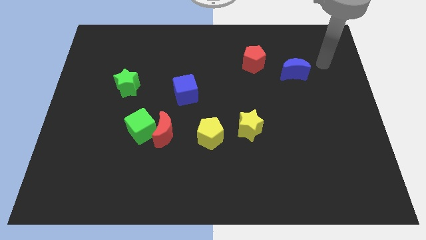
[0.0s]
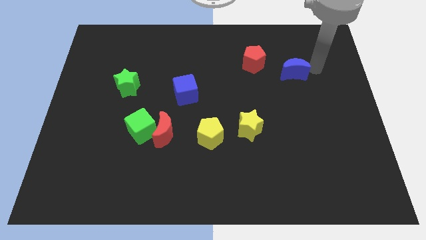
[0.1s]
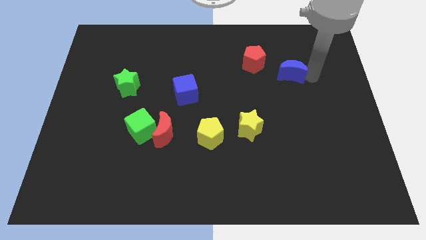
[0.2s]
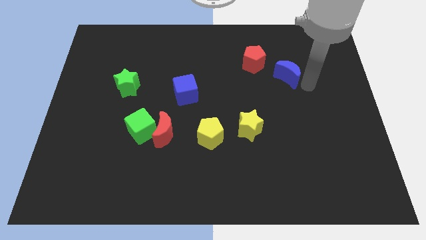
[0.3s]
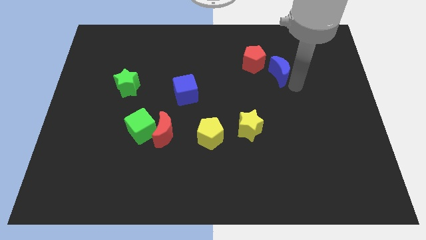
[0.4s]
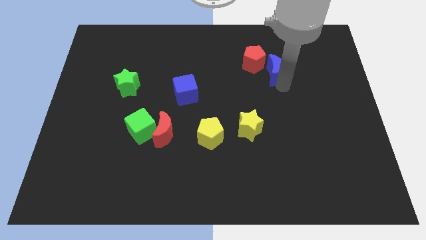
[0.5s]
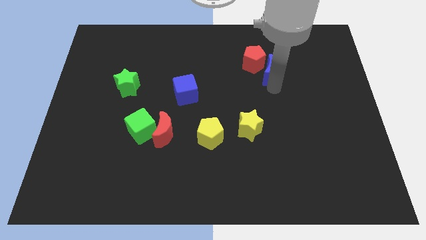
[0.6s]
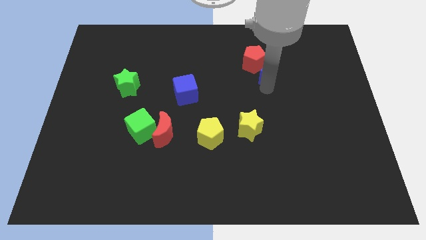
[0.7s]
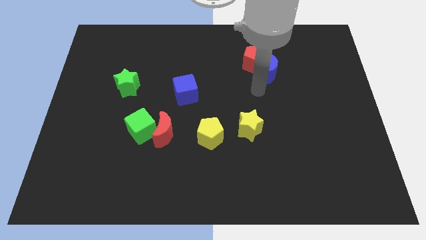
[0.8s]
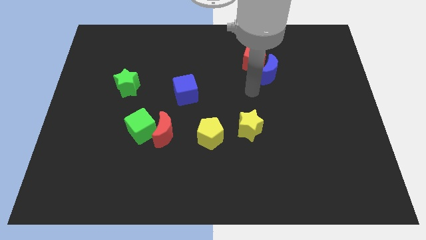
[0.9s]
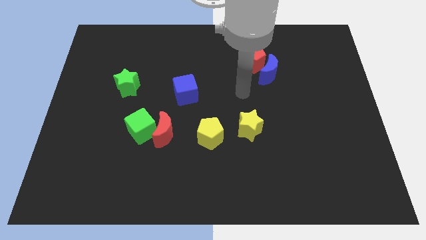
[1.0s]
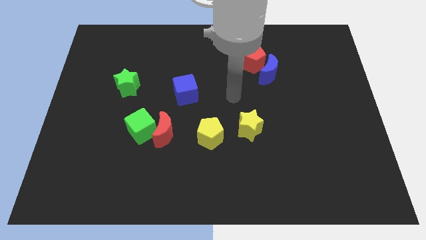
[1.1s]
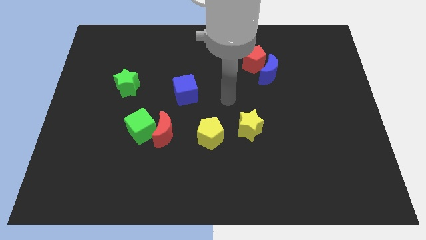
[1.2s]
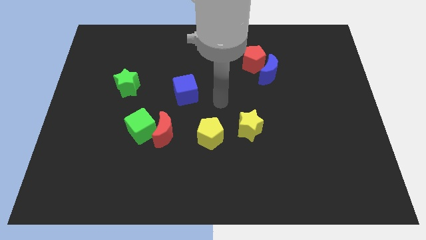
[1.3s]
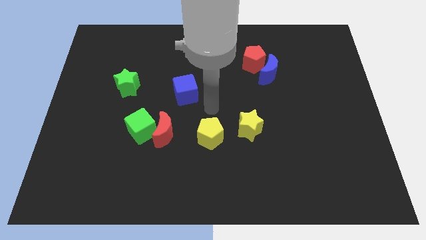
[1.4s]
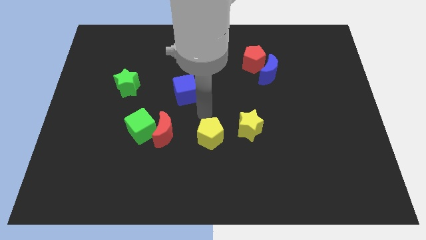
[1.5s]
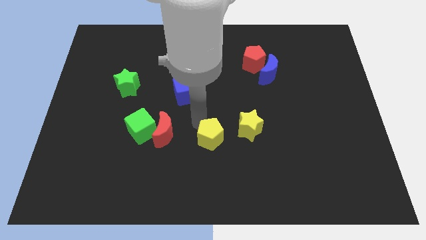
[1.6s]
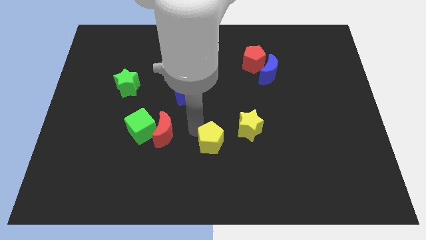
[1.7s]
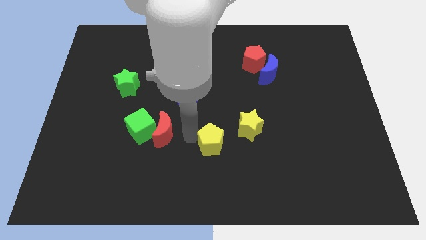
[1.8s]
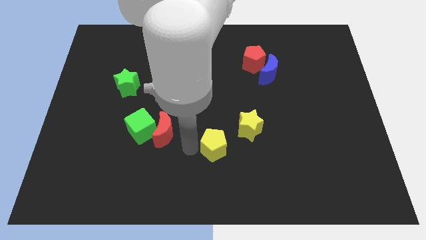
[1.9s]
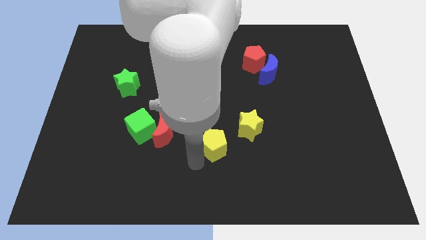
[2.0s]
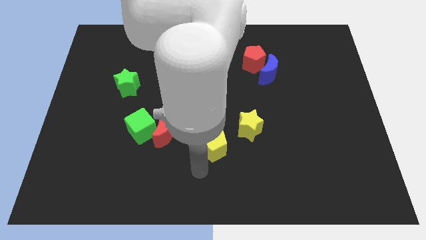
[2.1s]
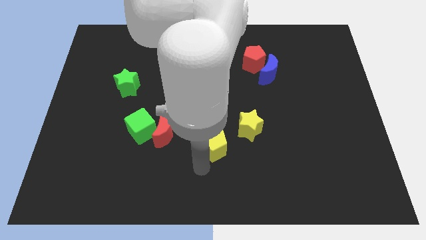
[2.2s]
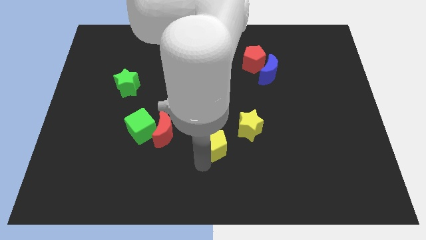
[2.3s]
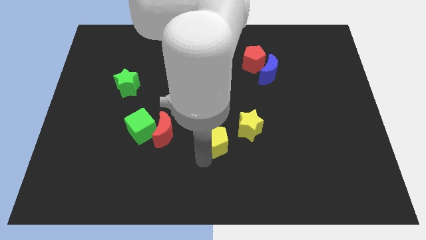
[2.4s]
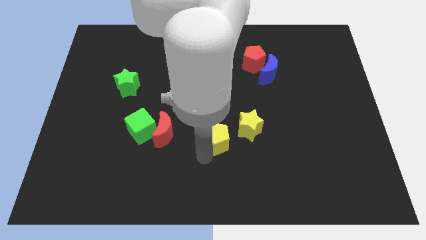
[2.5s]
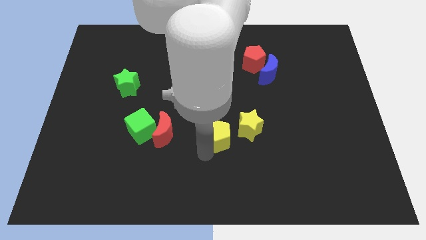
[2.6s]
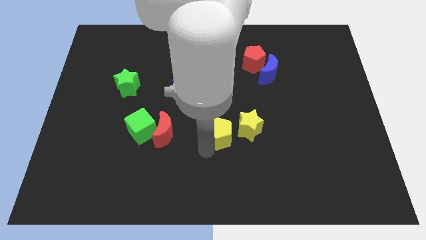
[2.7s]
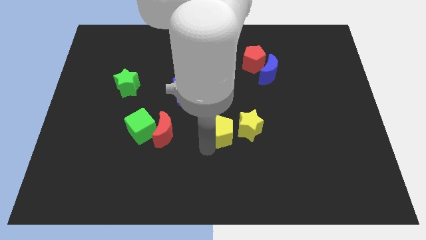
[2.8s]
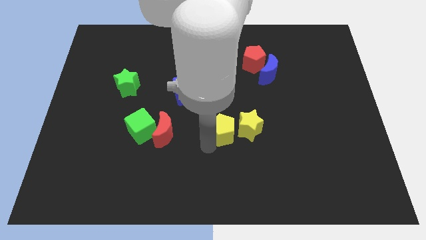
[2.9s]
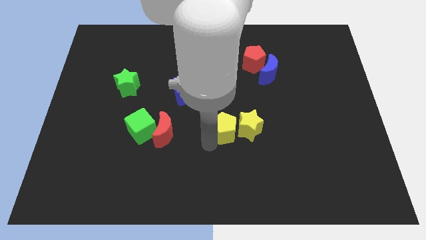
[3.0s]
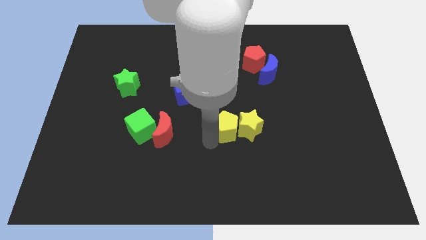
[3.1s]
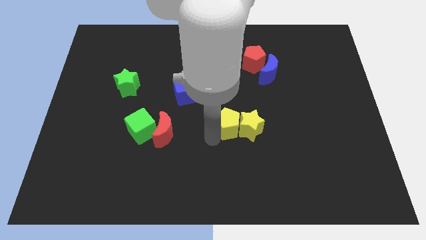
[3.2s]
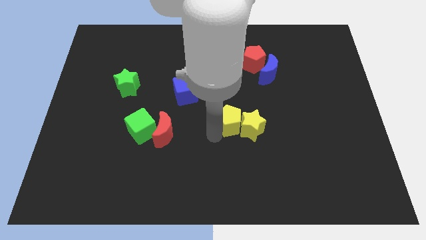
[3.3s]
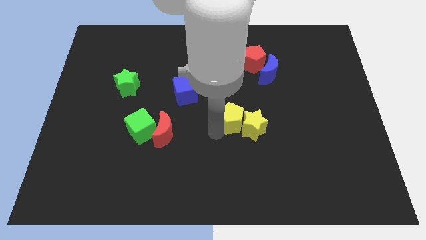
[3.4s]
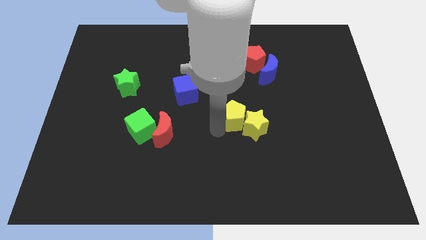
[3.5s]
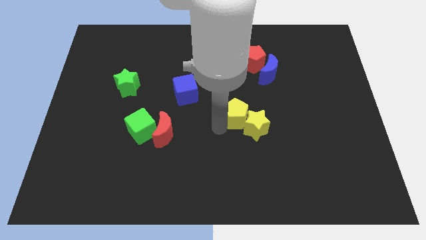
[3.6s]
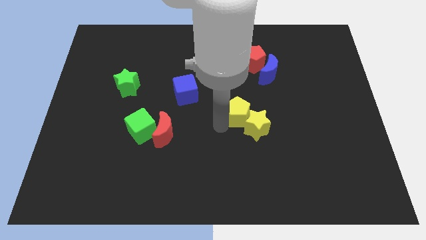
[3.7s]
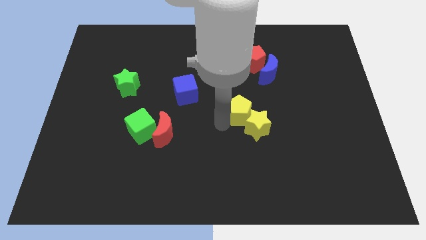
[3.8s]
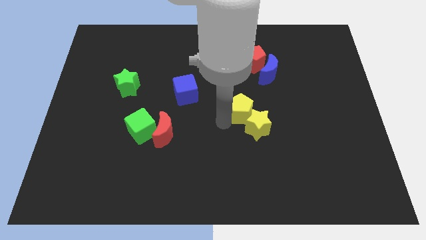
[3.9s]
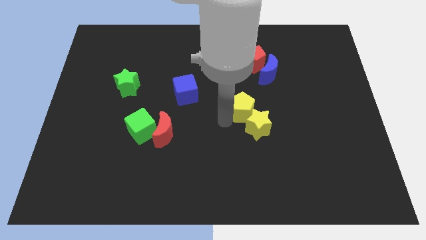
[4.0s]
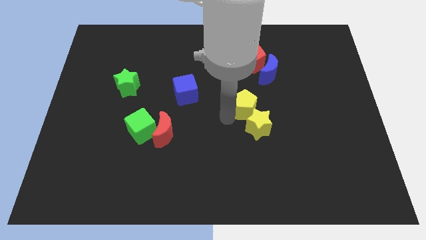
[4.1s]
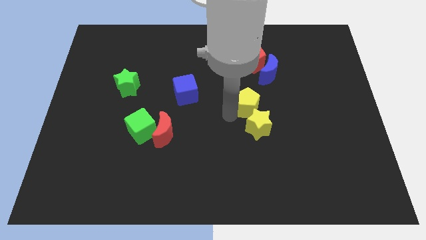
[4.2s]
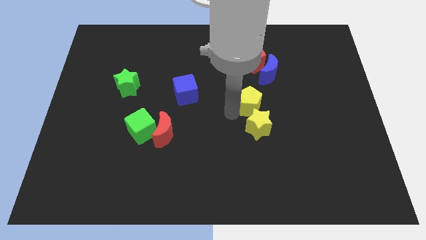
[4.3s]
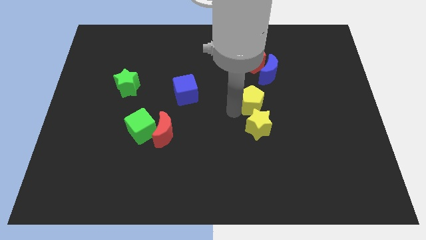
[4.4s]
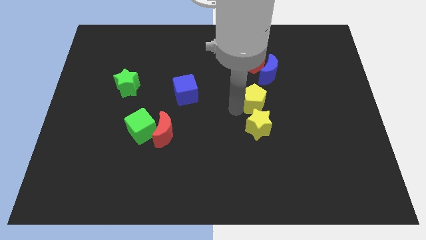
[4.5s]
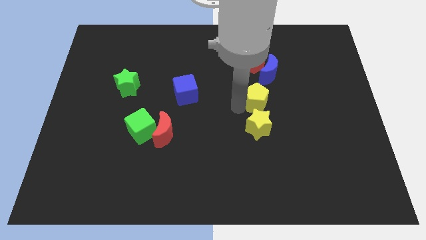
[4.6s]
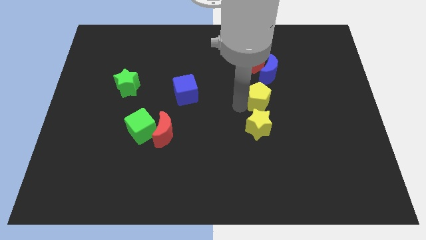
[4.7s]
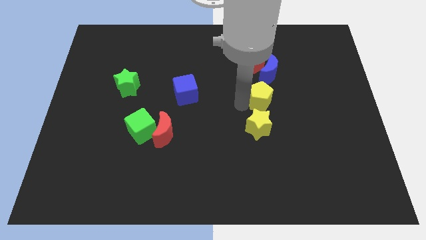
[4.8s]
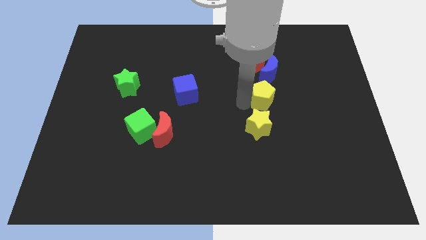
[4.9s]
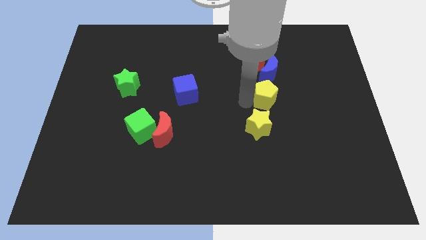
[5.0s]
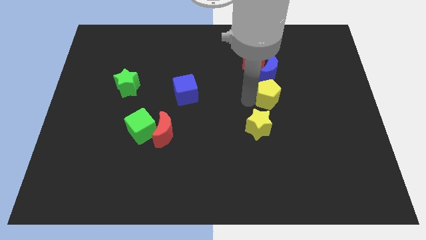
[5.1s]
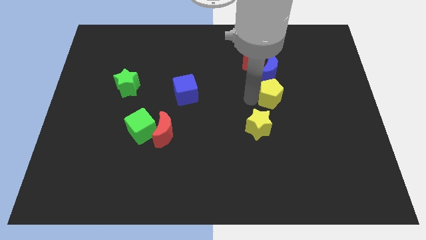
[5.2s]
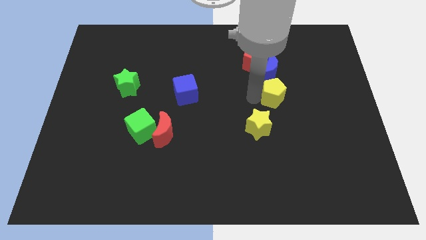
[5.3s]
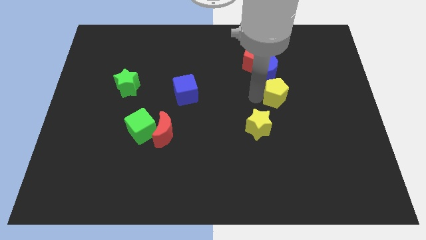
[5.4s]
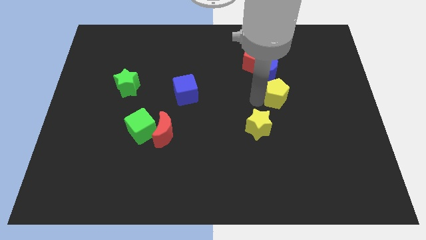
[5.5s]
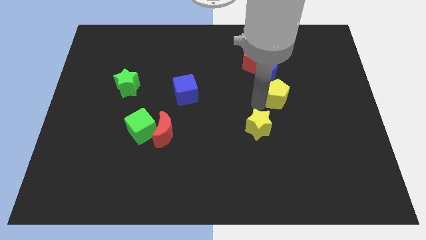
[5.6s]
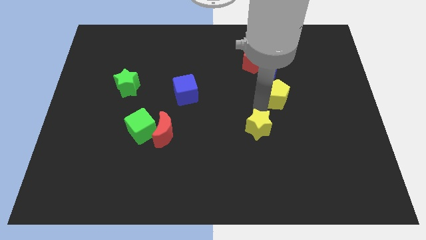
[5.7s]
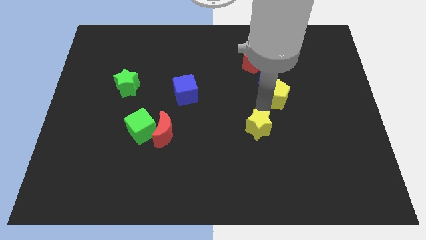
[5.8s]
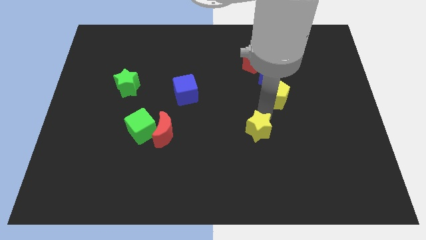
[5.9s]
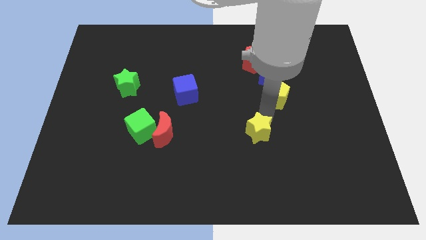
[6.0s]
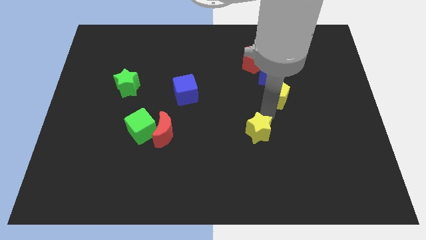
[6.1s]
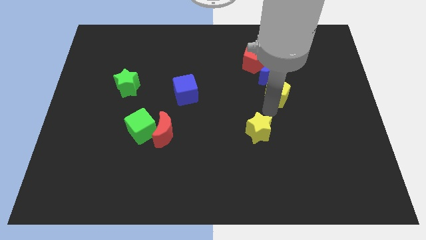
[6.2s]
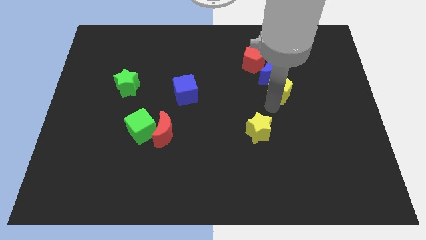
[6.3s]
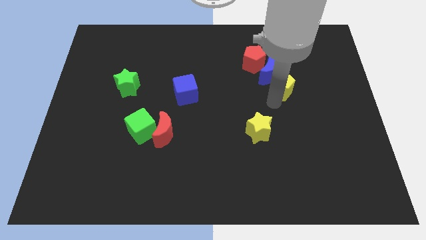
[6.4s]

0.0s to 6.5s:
put the yellow pentagon next to the blue moon
